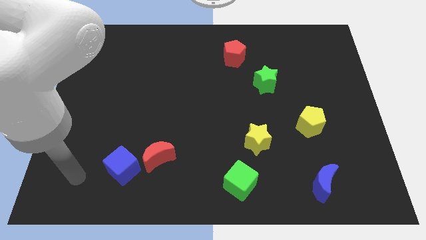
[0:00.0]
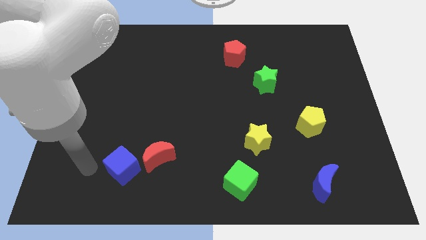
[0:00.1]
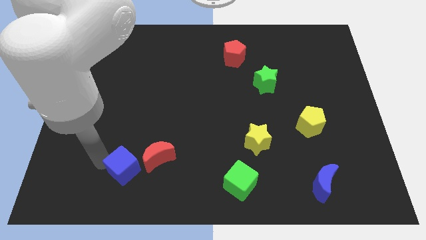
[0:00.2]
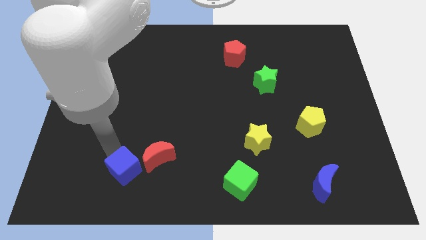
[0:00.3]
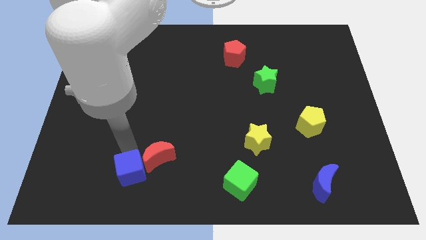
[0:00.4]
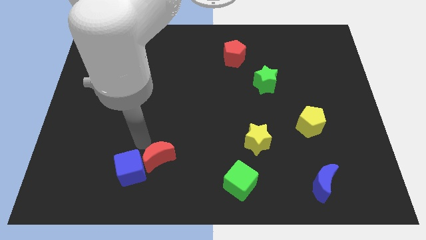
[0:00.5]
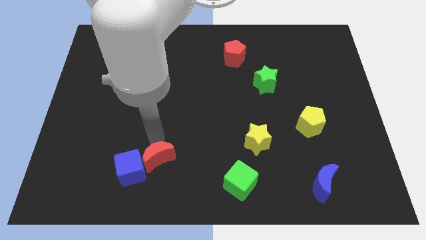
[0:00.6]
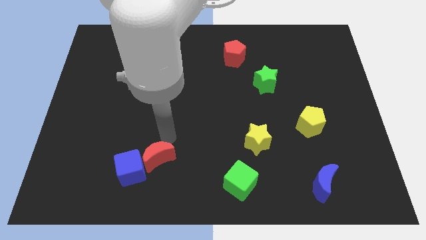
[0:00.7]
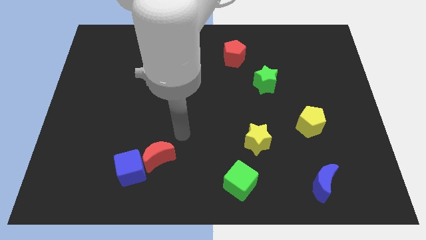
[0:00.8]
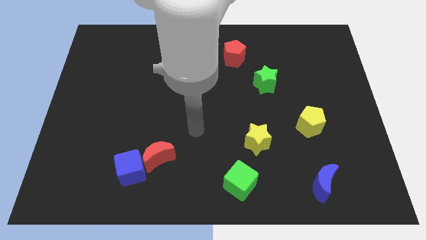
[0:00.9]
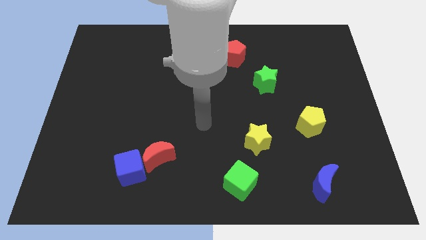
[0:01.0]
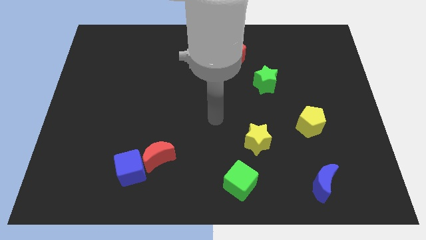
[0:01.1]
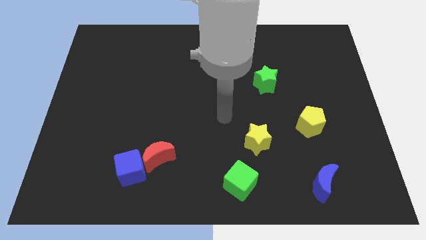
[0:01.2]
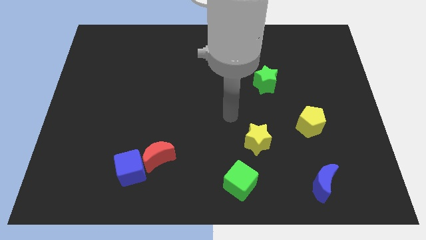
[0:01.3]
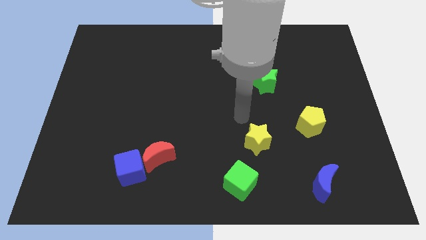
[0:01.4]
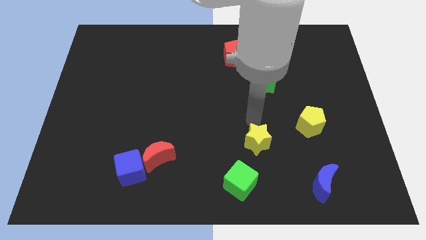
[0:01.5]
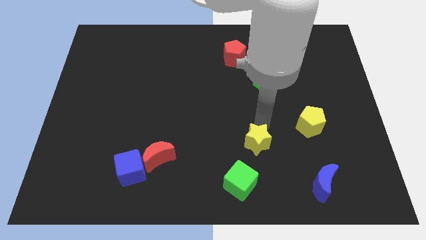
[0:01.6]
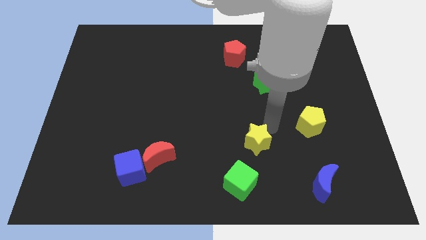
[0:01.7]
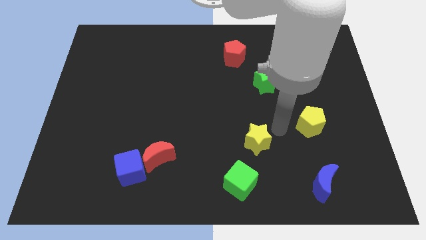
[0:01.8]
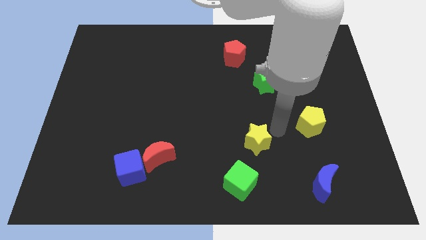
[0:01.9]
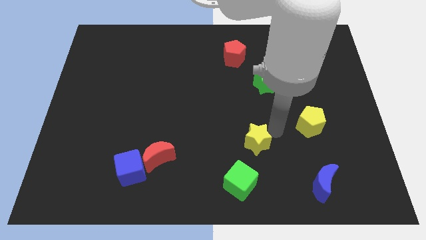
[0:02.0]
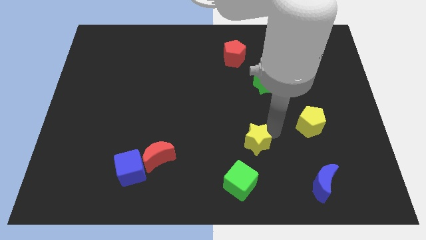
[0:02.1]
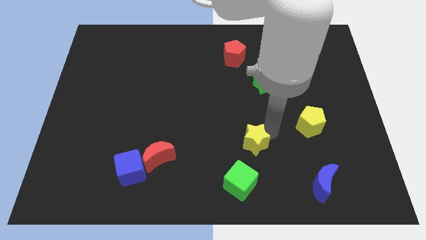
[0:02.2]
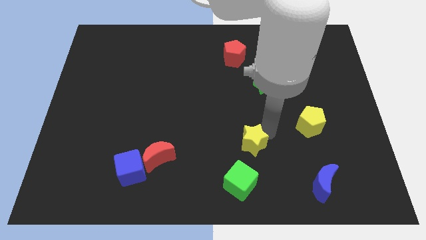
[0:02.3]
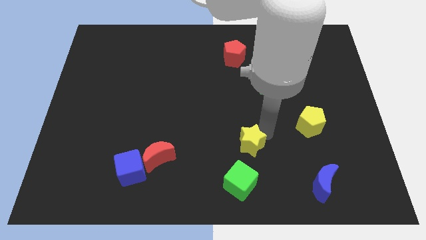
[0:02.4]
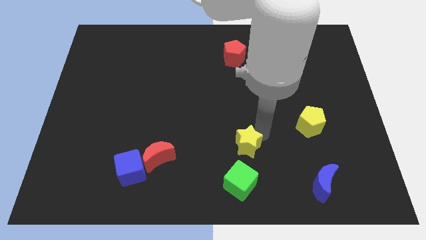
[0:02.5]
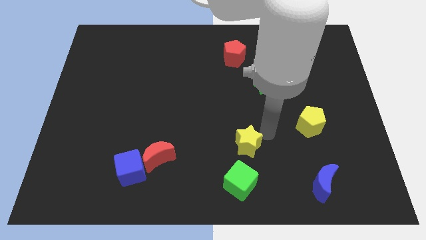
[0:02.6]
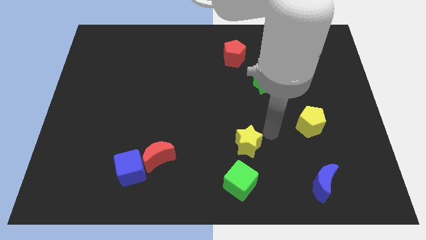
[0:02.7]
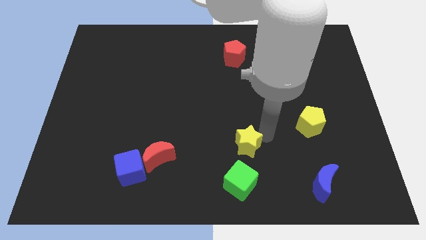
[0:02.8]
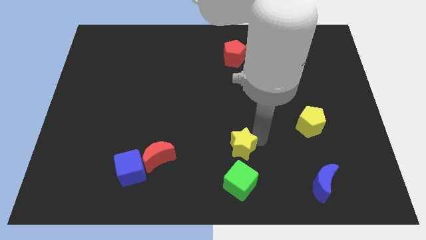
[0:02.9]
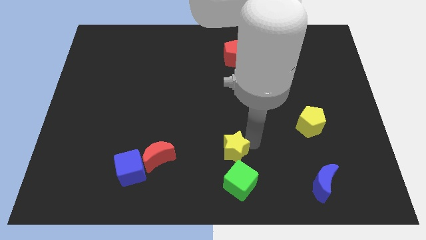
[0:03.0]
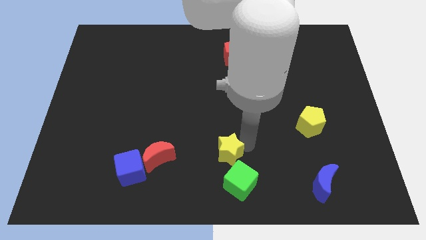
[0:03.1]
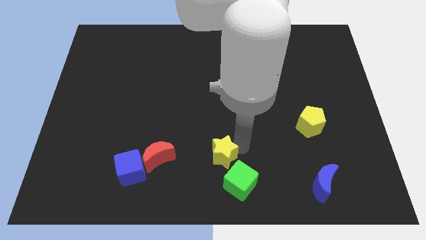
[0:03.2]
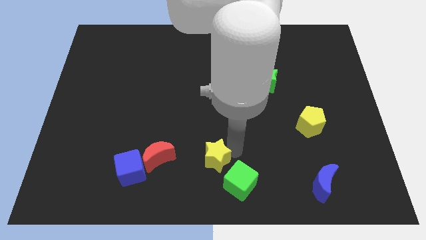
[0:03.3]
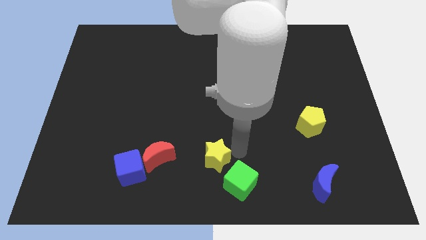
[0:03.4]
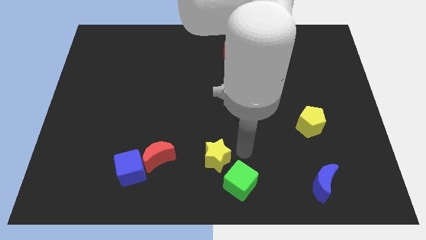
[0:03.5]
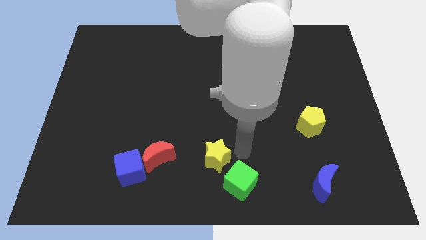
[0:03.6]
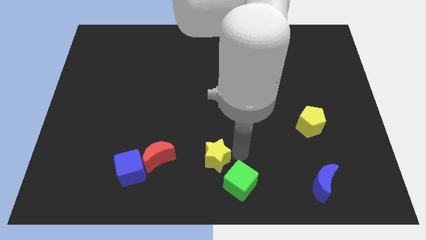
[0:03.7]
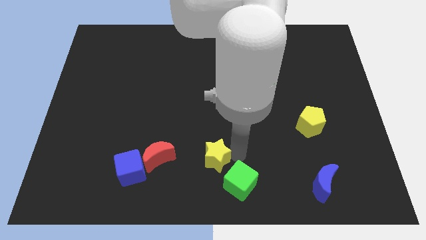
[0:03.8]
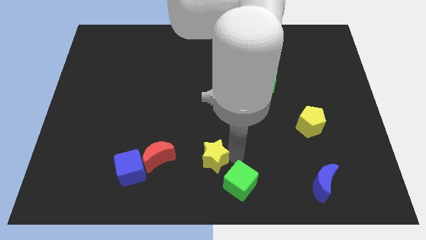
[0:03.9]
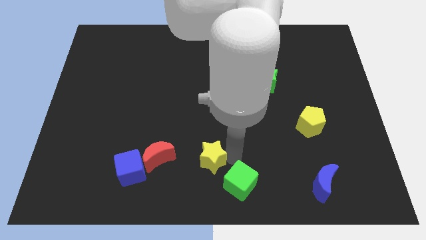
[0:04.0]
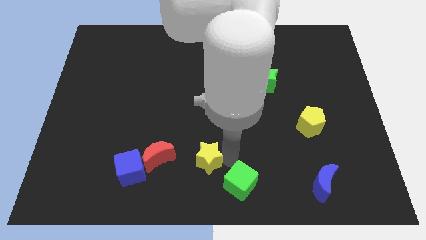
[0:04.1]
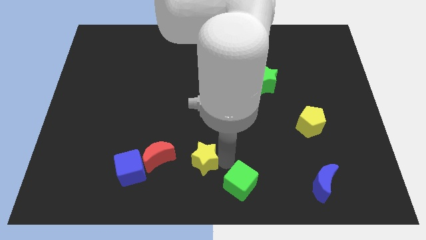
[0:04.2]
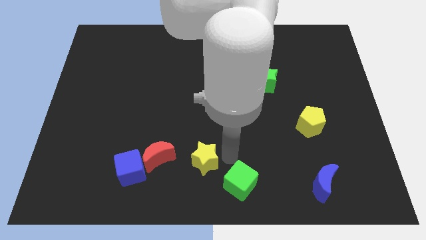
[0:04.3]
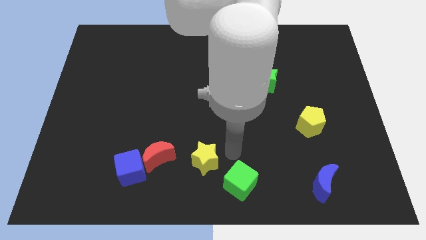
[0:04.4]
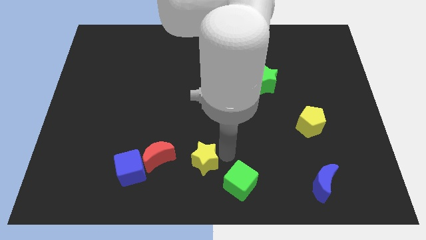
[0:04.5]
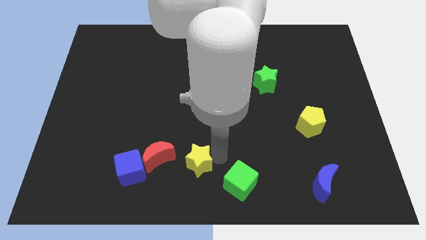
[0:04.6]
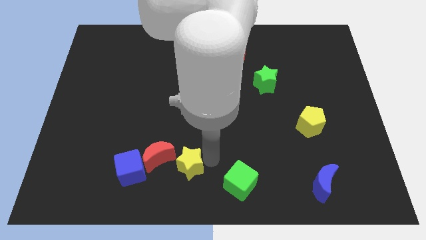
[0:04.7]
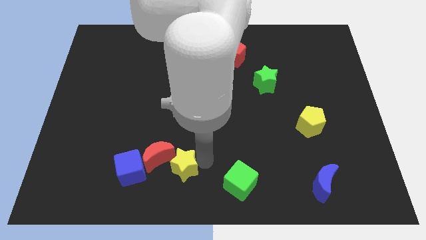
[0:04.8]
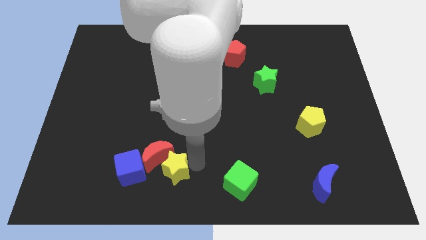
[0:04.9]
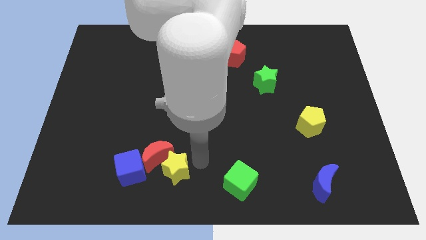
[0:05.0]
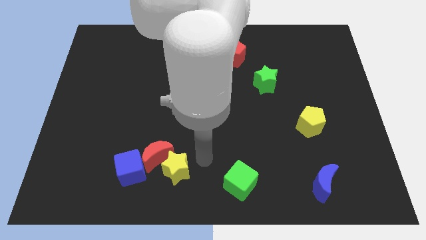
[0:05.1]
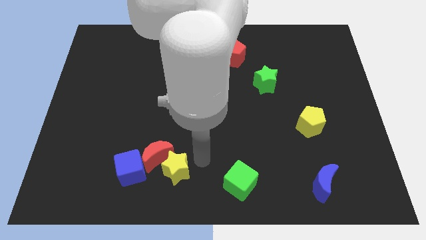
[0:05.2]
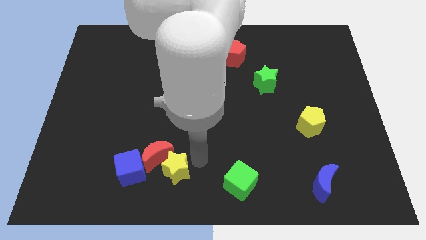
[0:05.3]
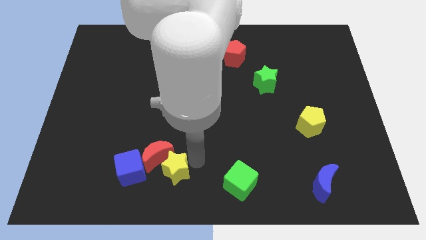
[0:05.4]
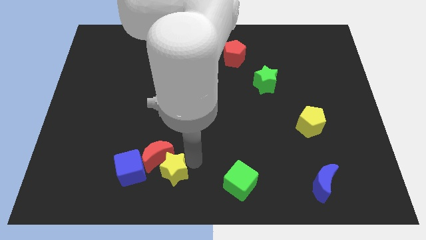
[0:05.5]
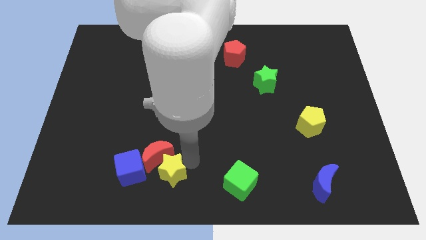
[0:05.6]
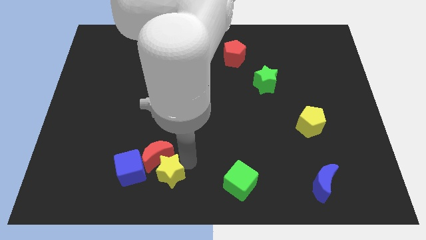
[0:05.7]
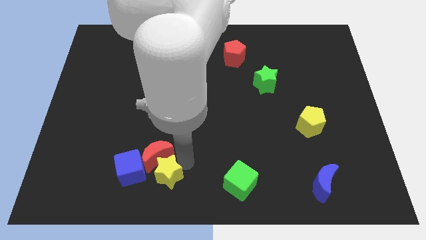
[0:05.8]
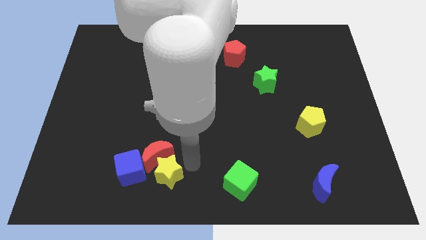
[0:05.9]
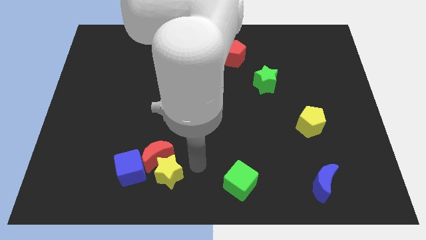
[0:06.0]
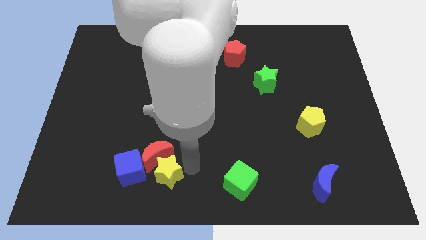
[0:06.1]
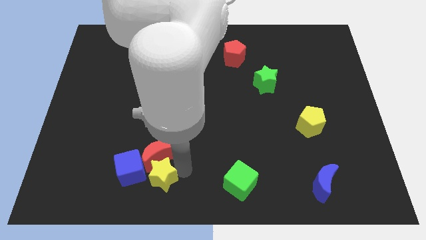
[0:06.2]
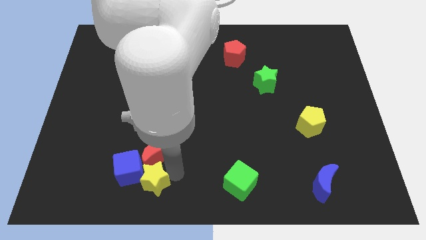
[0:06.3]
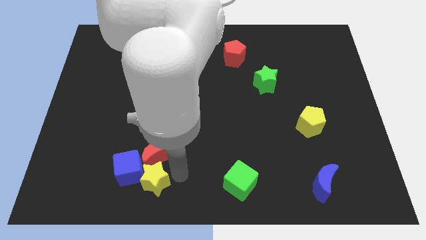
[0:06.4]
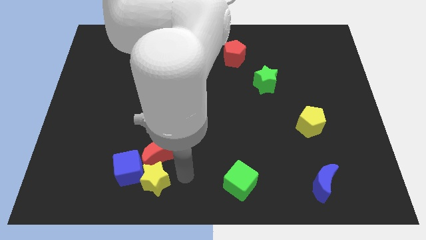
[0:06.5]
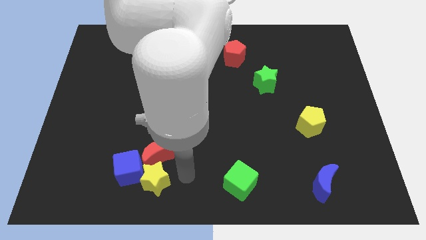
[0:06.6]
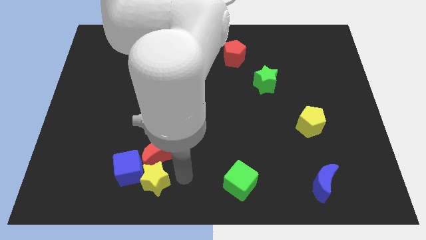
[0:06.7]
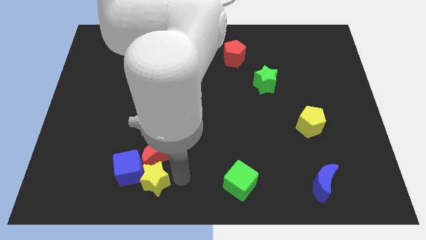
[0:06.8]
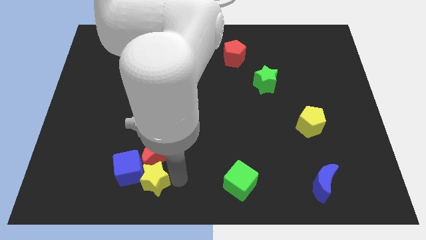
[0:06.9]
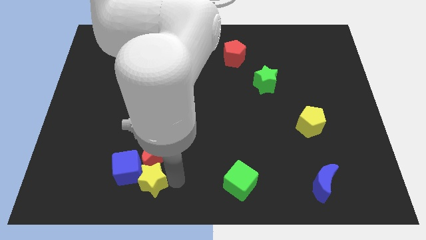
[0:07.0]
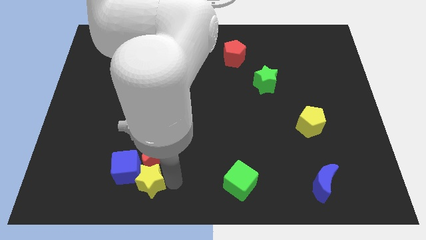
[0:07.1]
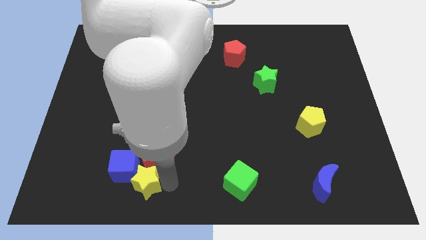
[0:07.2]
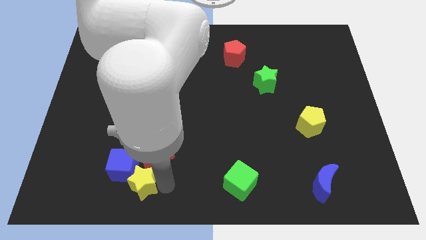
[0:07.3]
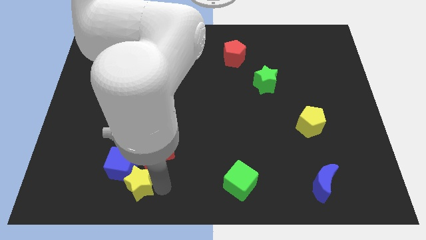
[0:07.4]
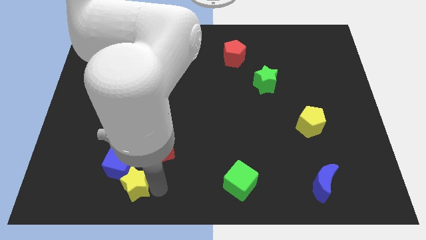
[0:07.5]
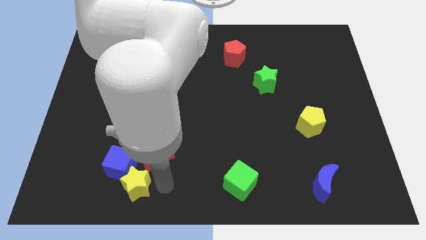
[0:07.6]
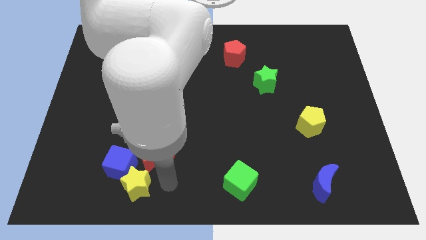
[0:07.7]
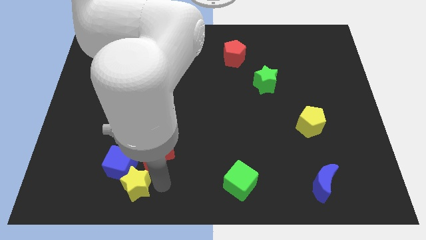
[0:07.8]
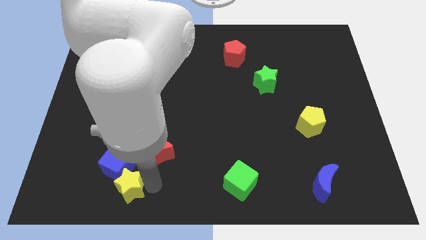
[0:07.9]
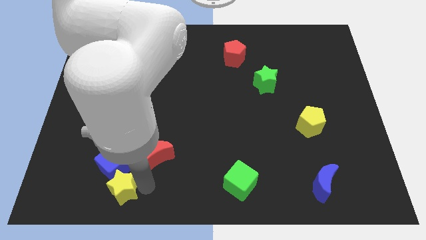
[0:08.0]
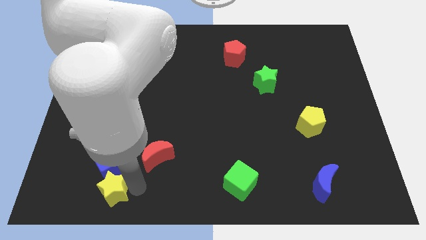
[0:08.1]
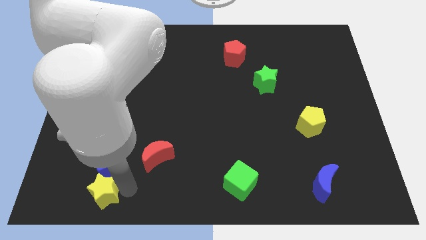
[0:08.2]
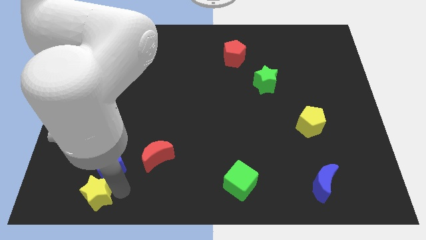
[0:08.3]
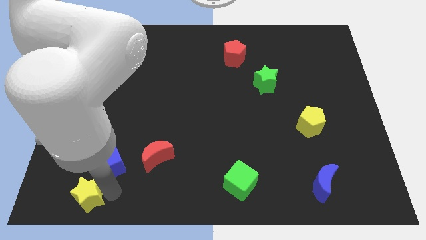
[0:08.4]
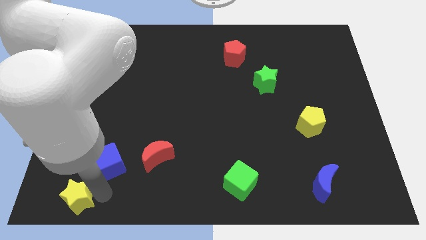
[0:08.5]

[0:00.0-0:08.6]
push the yellow star to the bottom left of the board
